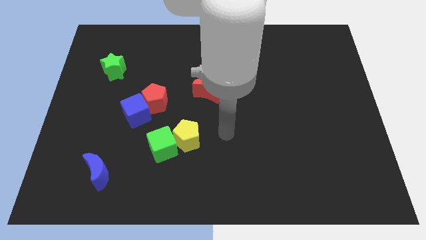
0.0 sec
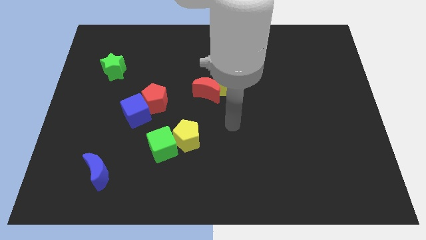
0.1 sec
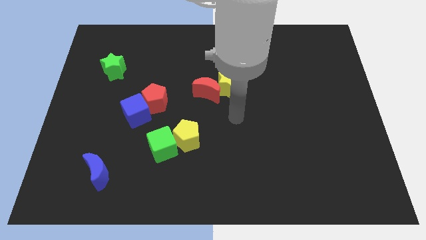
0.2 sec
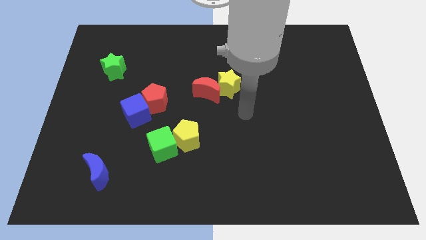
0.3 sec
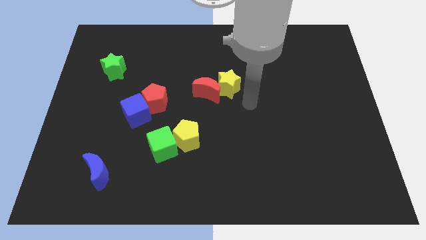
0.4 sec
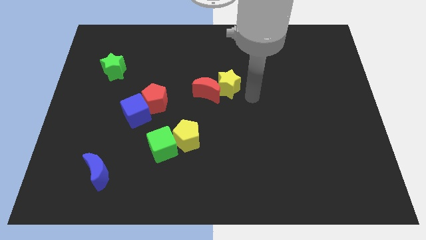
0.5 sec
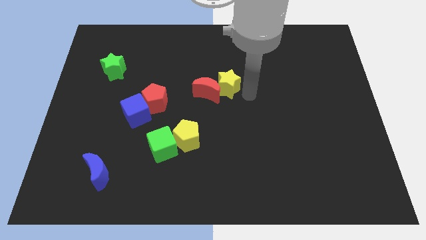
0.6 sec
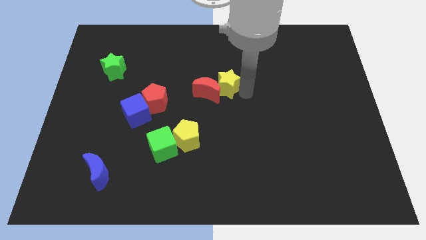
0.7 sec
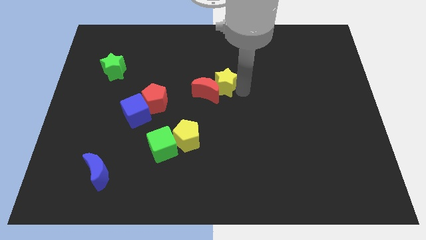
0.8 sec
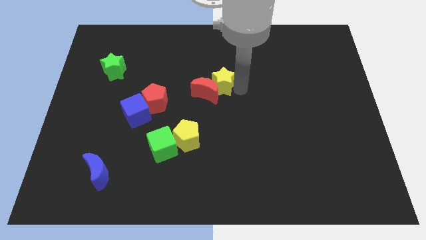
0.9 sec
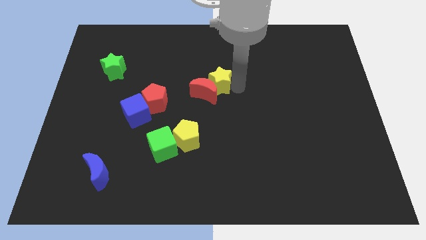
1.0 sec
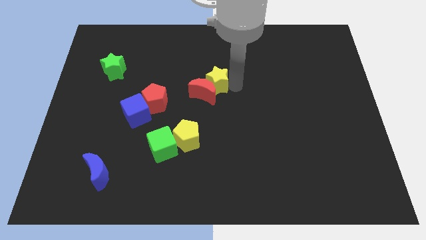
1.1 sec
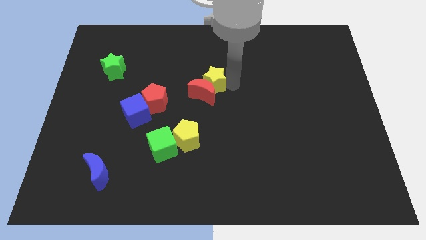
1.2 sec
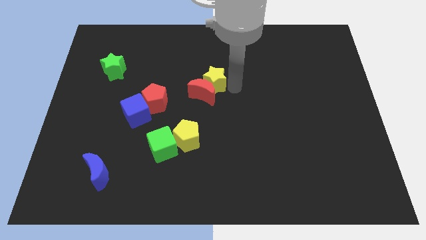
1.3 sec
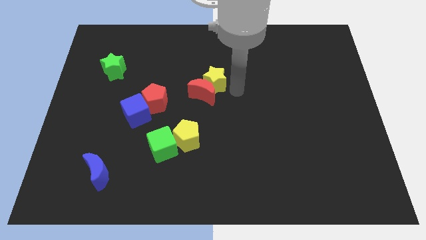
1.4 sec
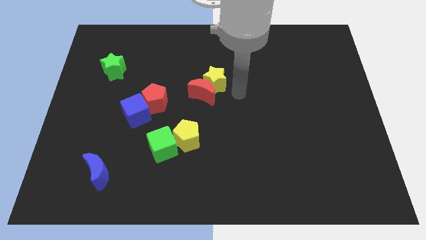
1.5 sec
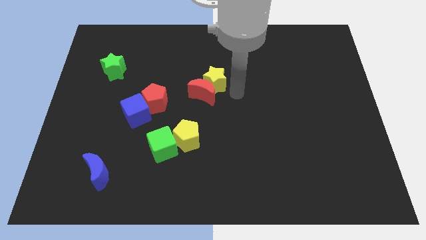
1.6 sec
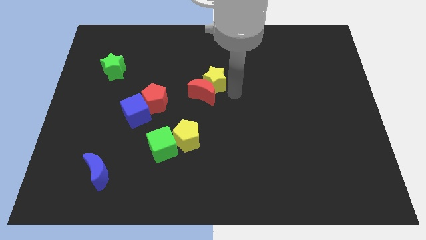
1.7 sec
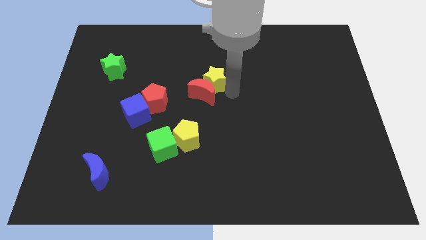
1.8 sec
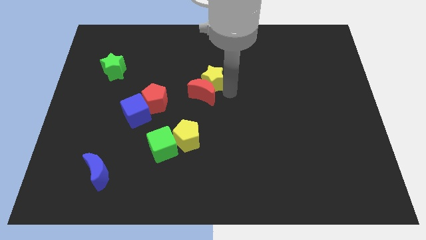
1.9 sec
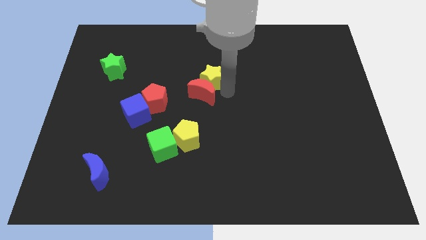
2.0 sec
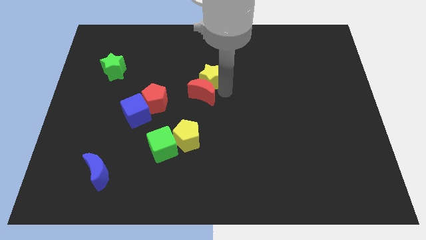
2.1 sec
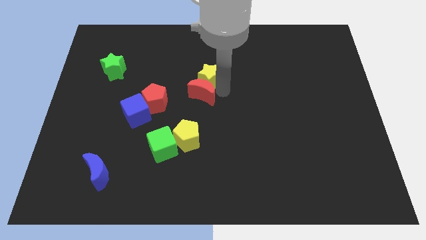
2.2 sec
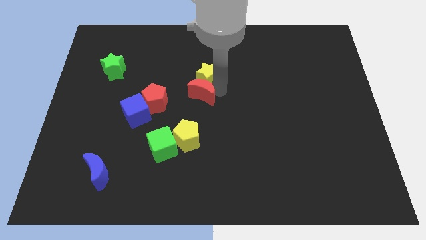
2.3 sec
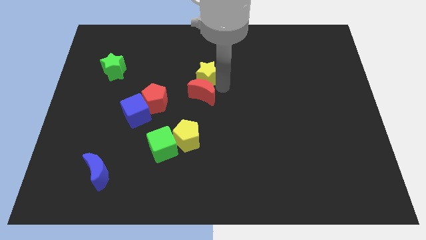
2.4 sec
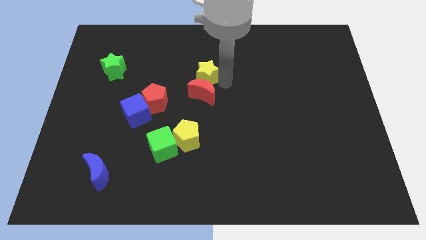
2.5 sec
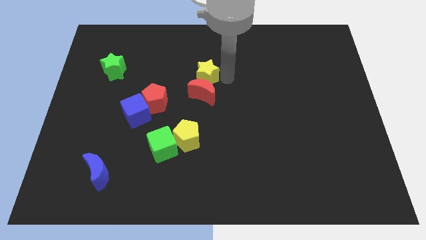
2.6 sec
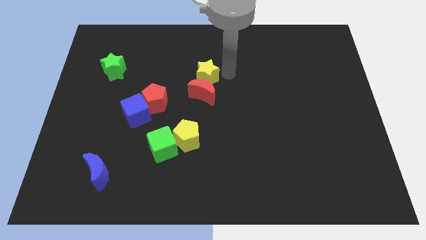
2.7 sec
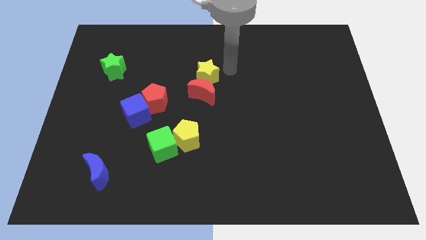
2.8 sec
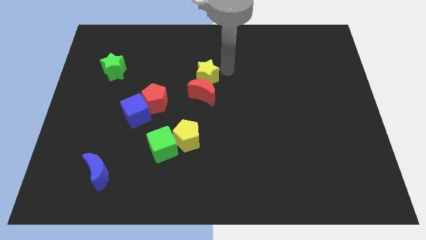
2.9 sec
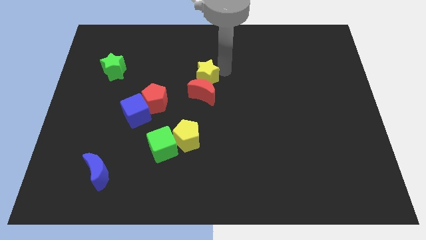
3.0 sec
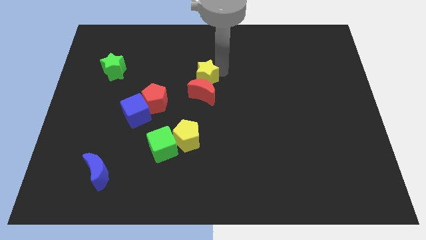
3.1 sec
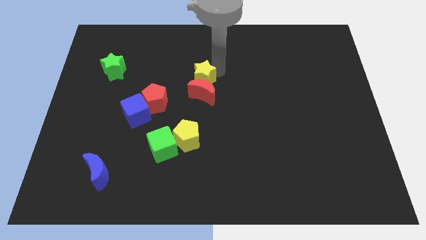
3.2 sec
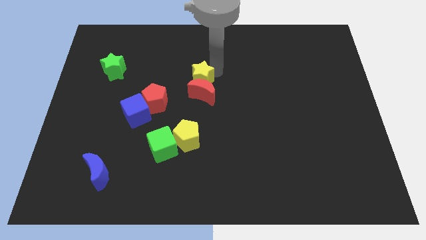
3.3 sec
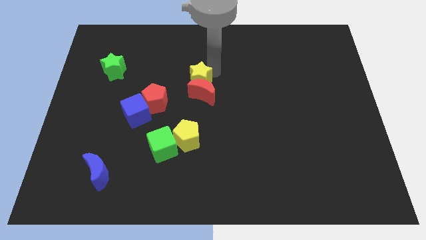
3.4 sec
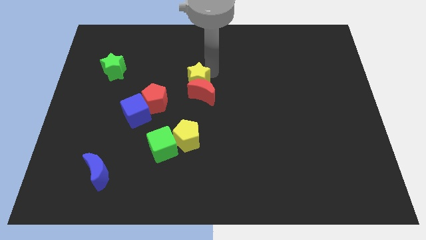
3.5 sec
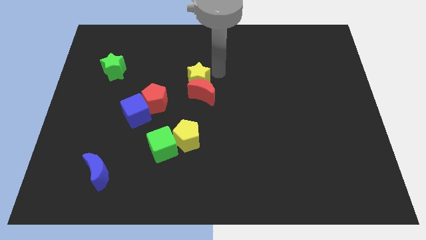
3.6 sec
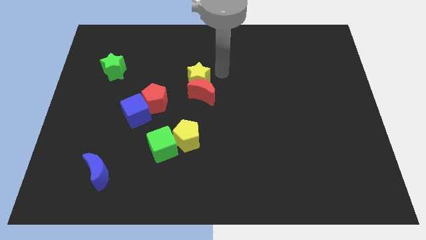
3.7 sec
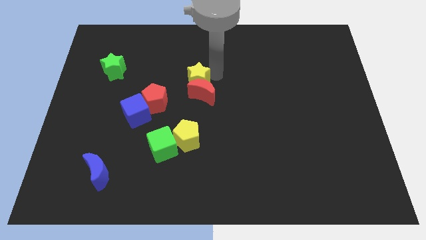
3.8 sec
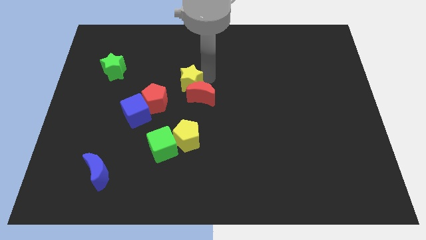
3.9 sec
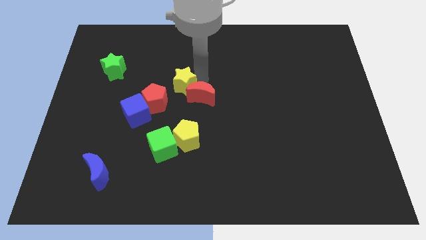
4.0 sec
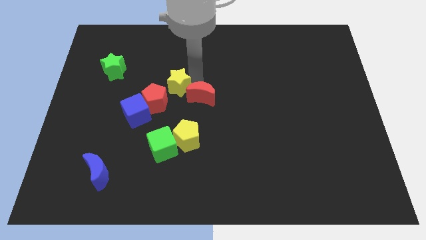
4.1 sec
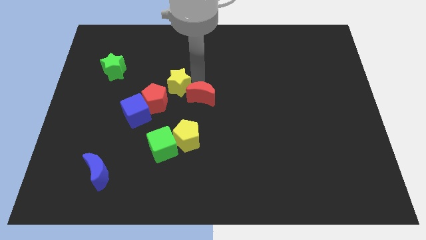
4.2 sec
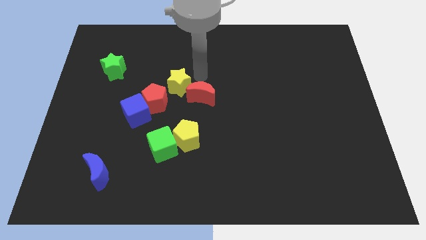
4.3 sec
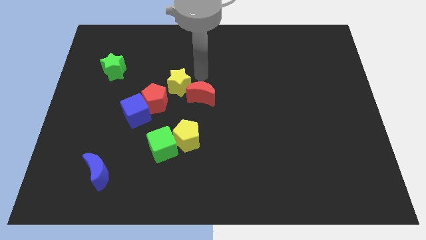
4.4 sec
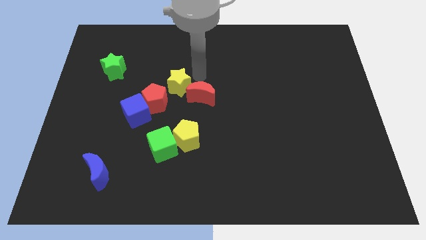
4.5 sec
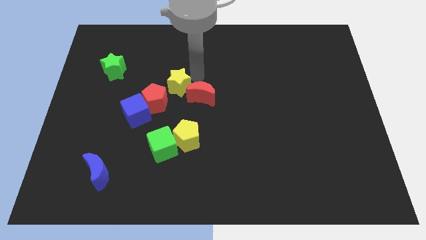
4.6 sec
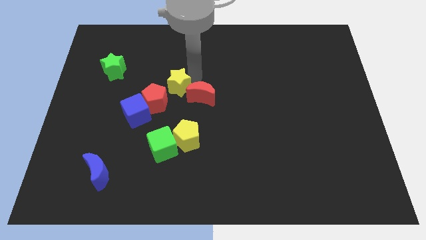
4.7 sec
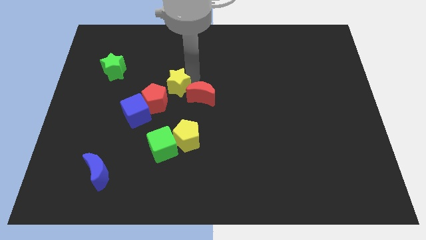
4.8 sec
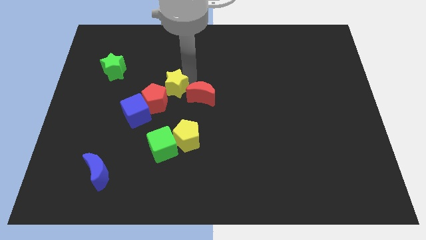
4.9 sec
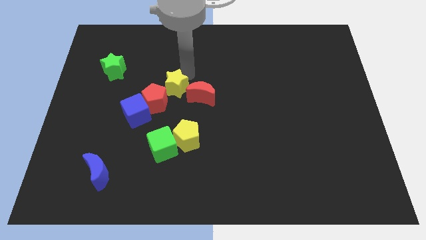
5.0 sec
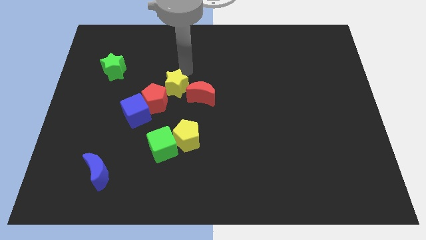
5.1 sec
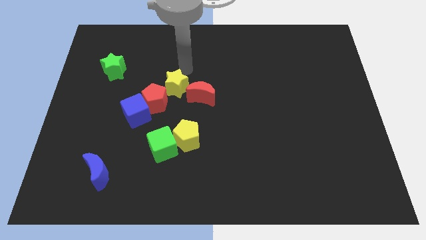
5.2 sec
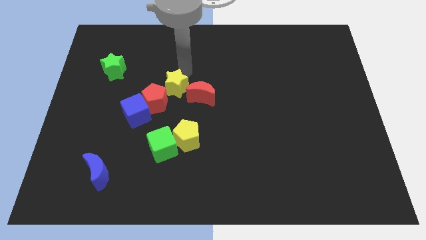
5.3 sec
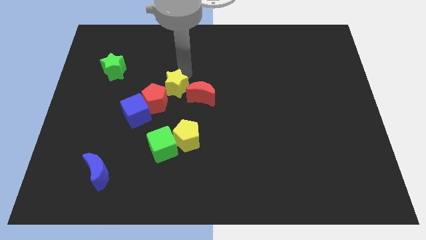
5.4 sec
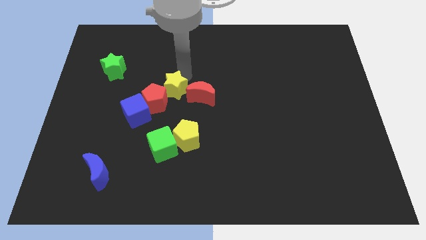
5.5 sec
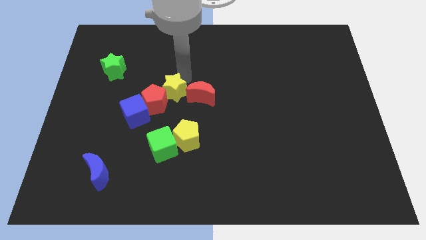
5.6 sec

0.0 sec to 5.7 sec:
push the yellow star to the top side of the green cube
